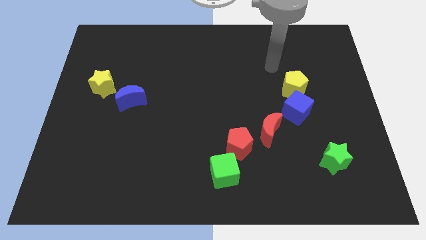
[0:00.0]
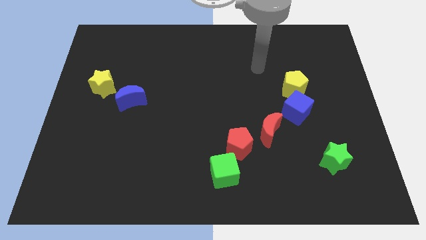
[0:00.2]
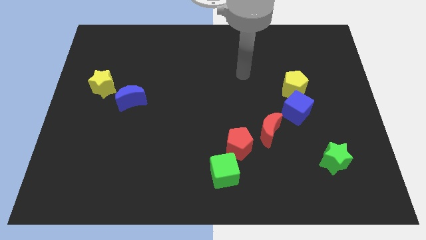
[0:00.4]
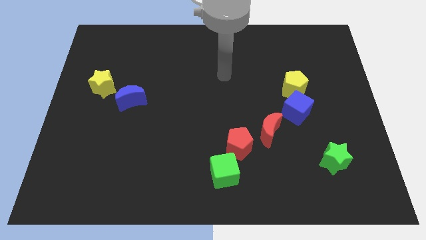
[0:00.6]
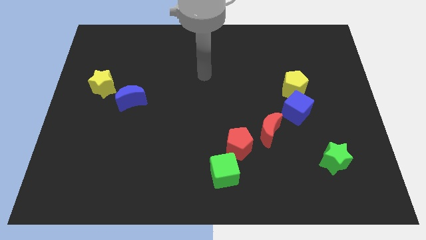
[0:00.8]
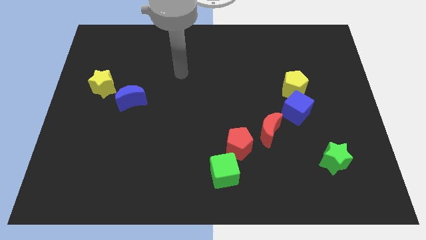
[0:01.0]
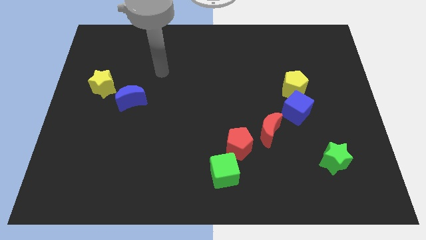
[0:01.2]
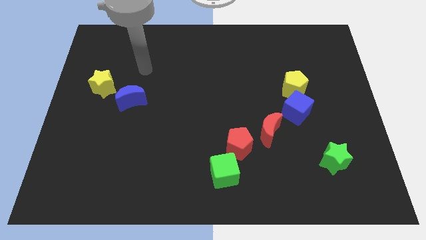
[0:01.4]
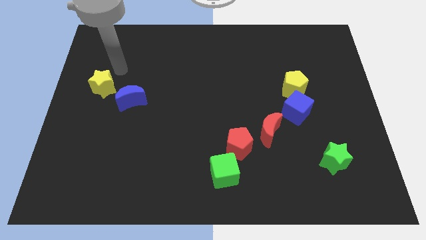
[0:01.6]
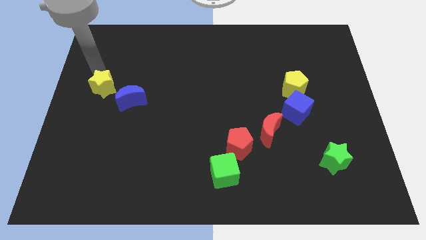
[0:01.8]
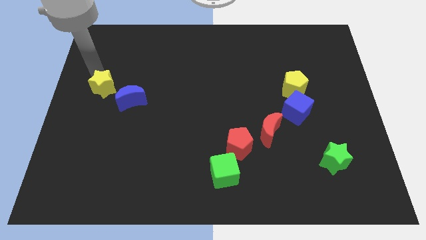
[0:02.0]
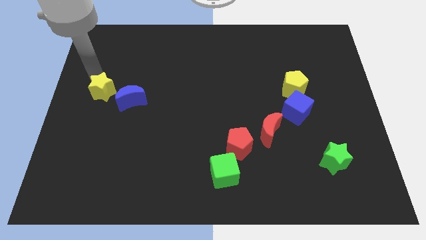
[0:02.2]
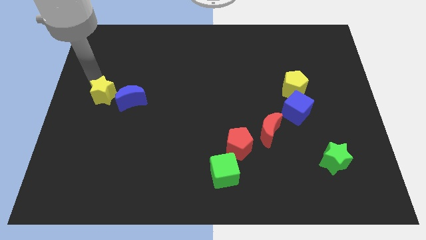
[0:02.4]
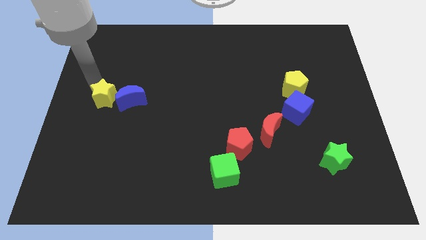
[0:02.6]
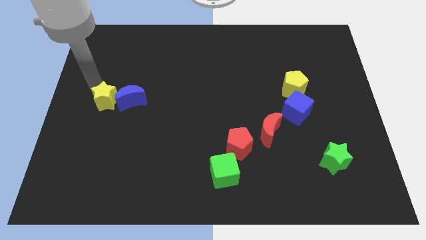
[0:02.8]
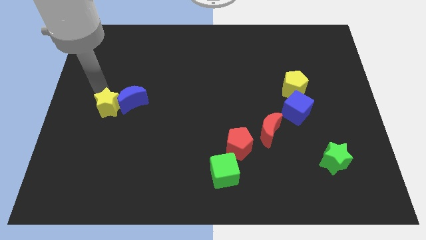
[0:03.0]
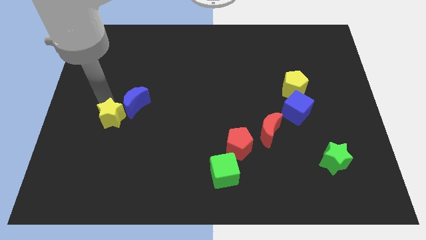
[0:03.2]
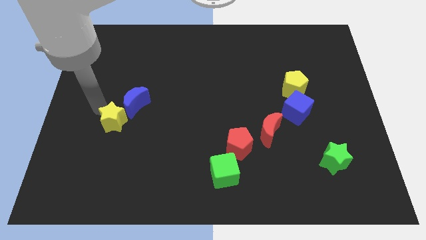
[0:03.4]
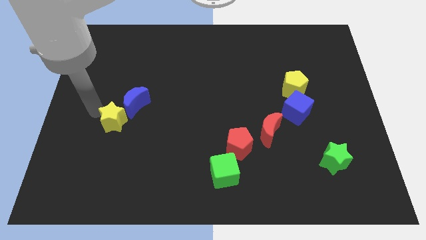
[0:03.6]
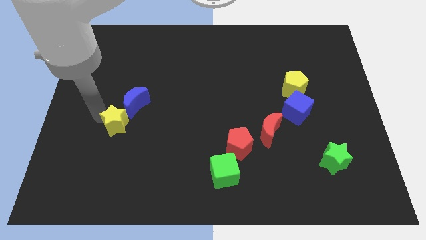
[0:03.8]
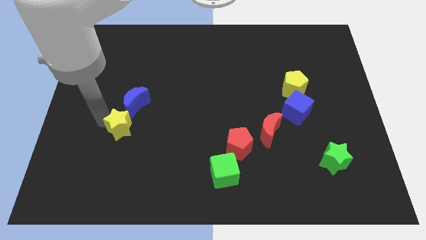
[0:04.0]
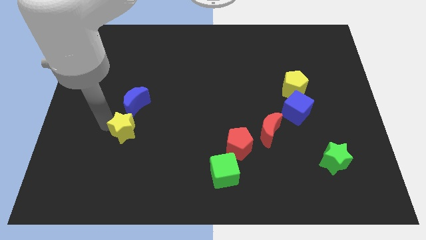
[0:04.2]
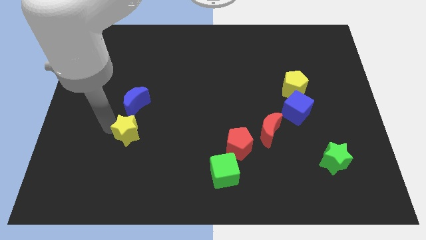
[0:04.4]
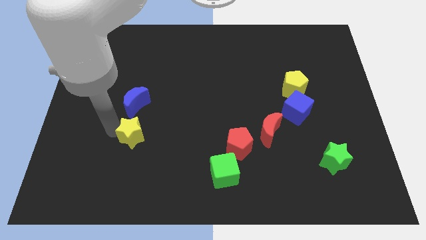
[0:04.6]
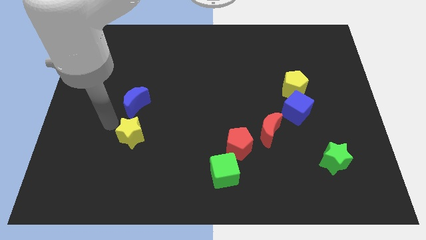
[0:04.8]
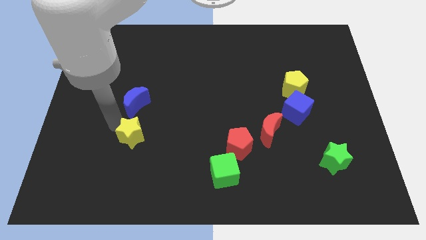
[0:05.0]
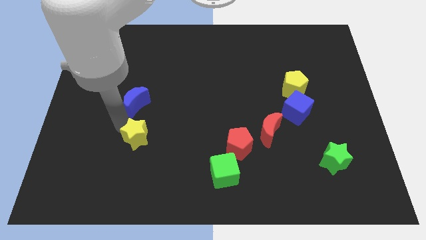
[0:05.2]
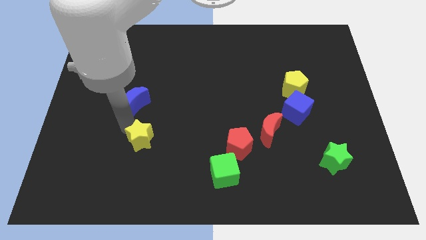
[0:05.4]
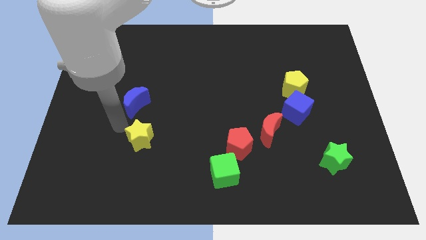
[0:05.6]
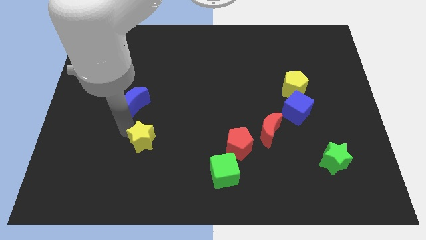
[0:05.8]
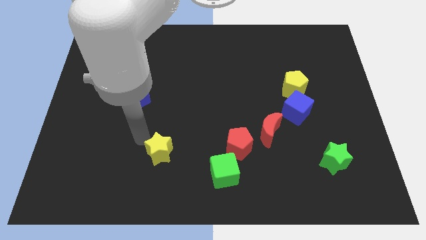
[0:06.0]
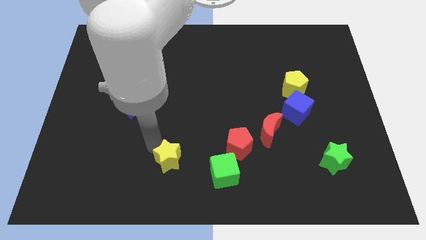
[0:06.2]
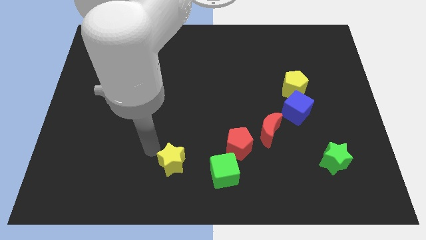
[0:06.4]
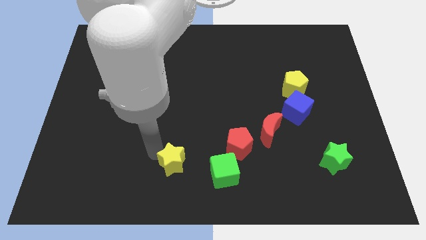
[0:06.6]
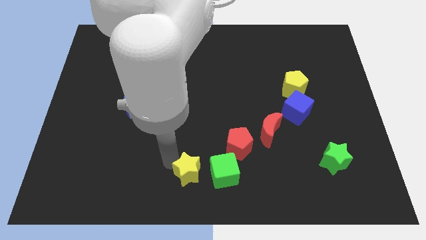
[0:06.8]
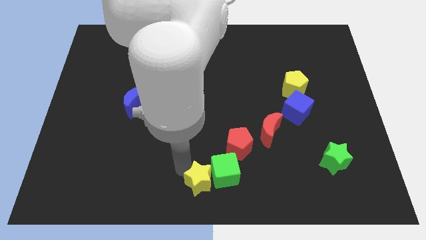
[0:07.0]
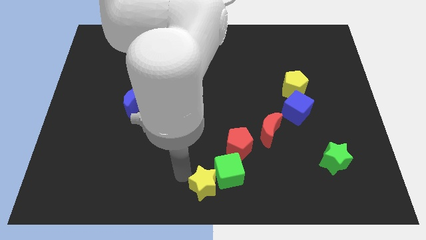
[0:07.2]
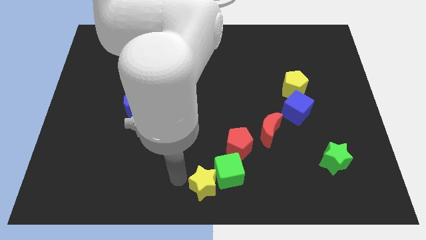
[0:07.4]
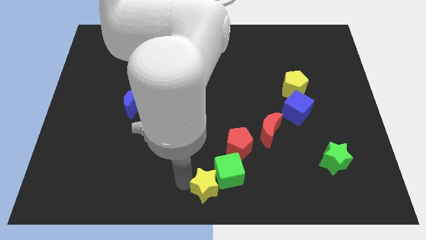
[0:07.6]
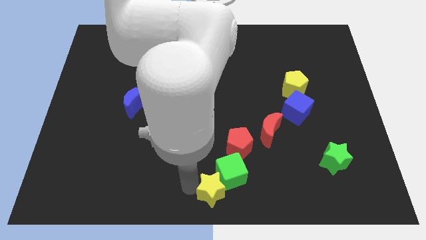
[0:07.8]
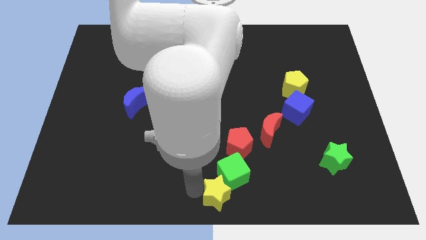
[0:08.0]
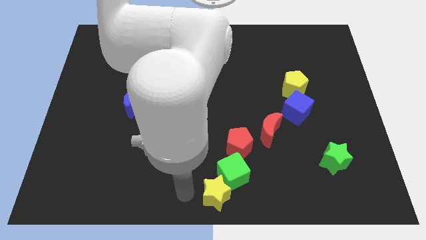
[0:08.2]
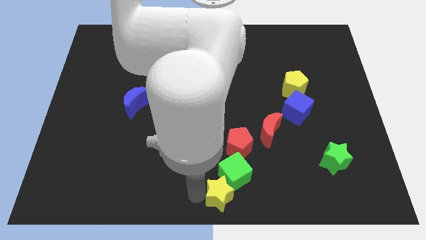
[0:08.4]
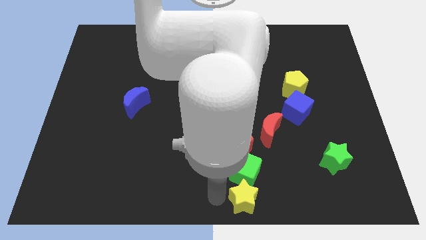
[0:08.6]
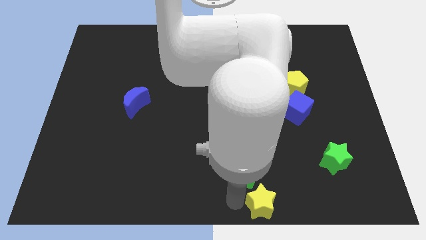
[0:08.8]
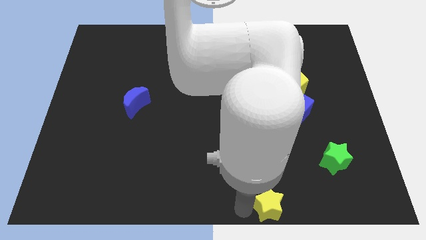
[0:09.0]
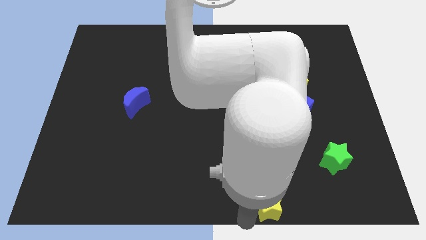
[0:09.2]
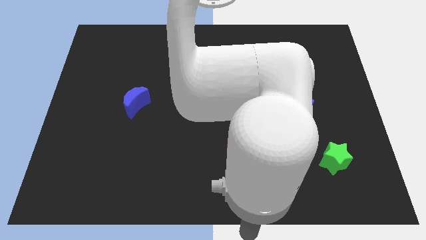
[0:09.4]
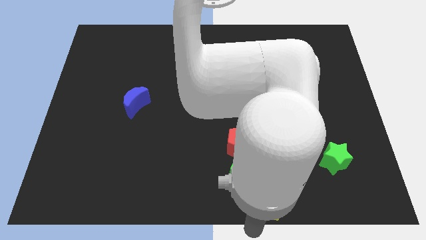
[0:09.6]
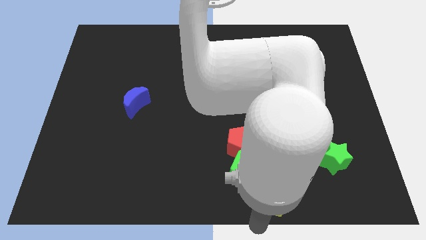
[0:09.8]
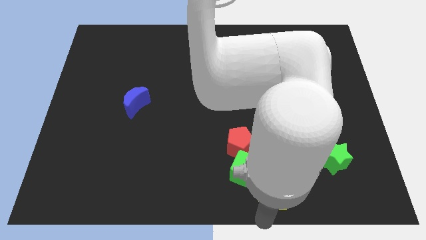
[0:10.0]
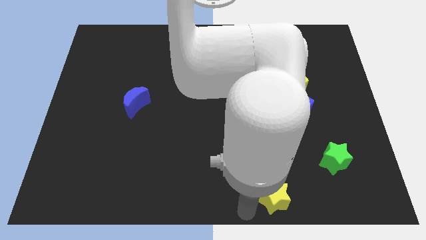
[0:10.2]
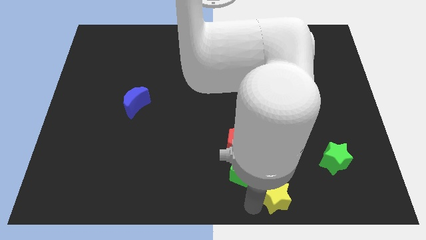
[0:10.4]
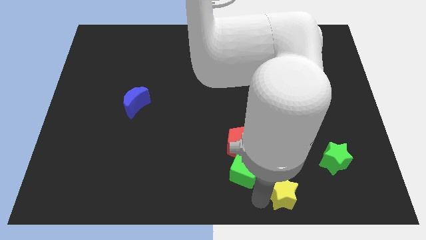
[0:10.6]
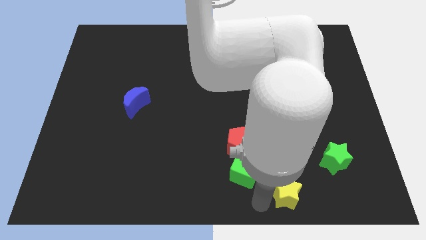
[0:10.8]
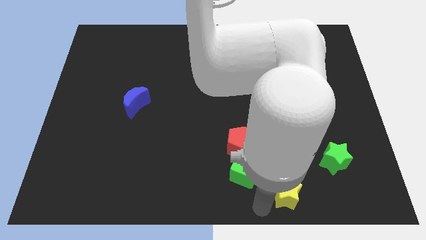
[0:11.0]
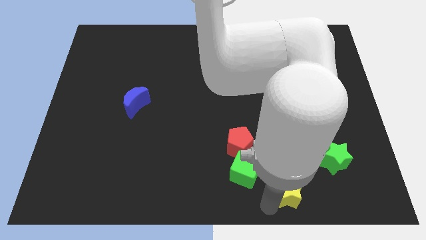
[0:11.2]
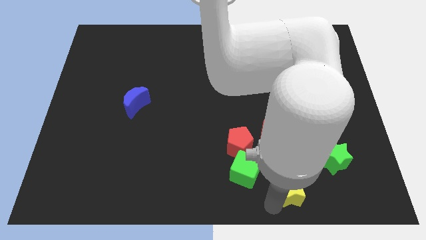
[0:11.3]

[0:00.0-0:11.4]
move the yellow star to the bottom left side of the green star

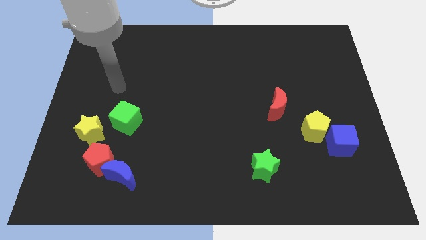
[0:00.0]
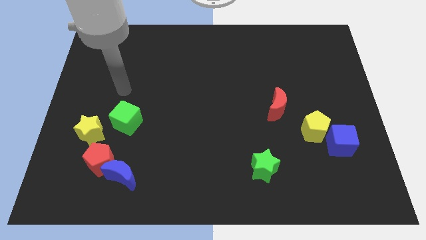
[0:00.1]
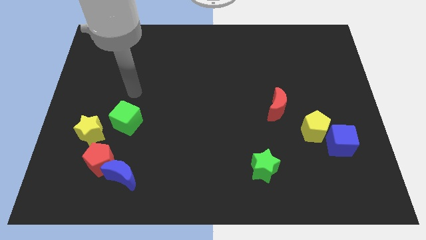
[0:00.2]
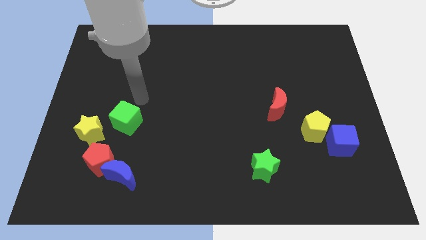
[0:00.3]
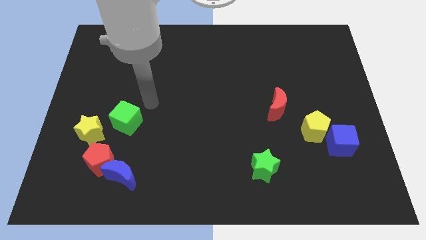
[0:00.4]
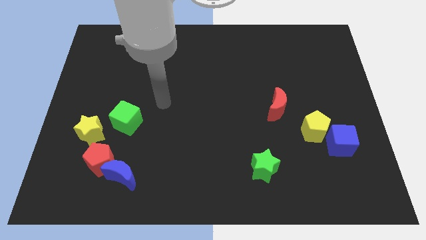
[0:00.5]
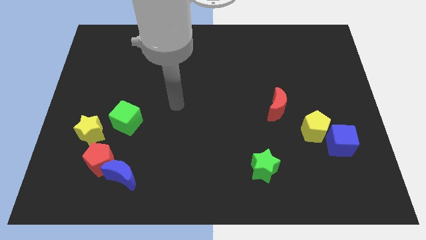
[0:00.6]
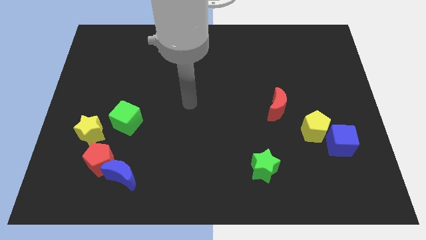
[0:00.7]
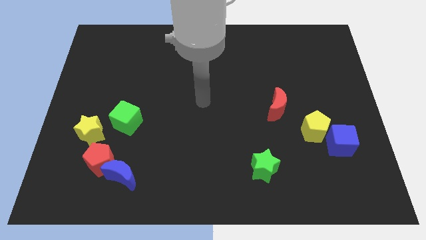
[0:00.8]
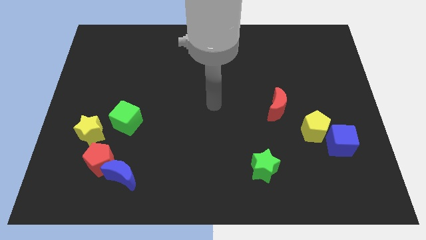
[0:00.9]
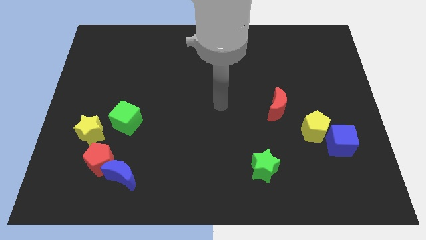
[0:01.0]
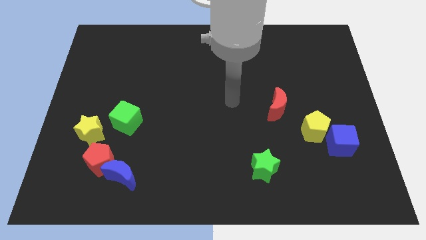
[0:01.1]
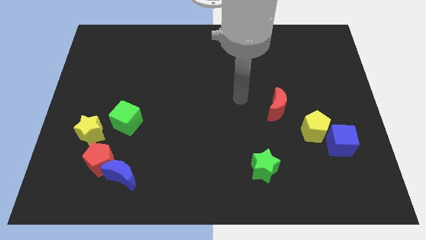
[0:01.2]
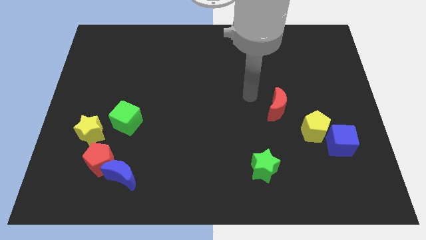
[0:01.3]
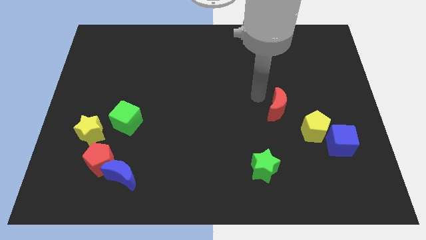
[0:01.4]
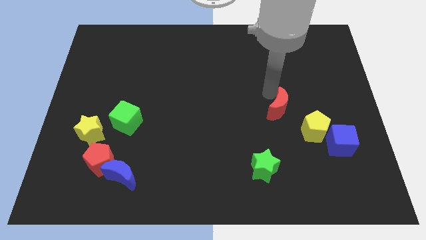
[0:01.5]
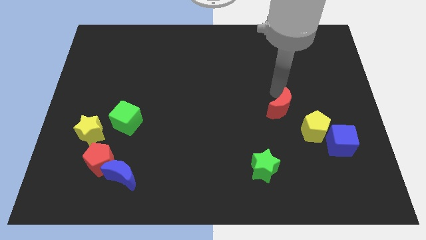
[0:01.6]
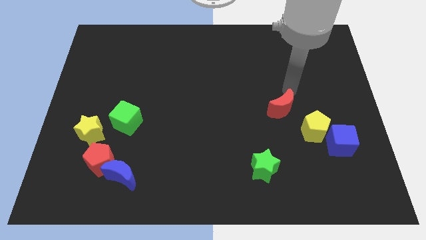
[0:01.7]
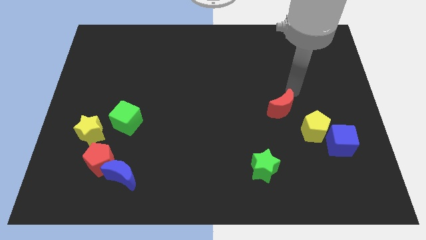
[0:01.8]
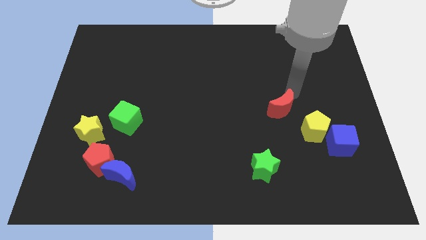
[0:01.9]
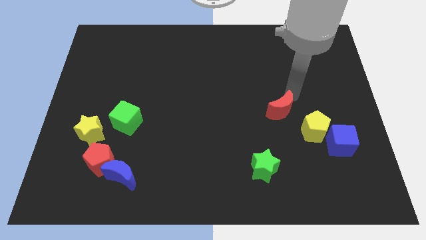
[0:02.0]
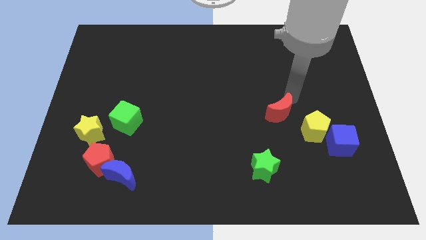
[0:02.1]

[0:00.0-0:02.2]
move the red moon to the left of the yellow pentagon
